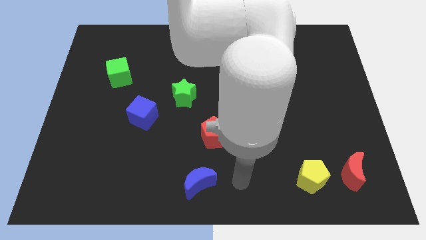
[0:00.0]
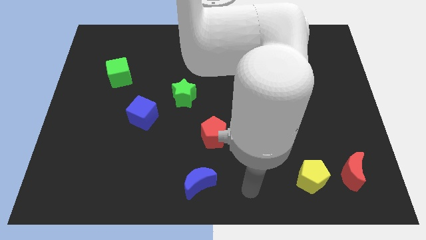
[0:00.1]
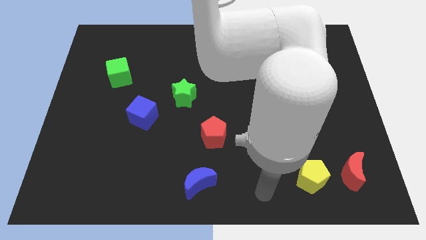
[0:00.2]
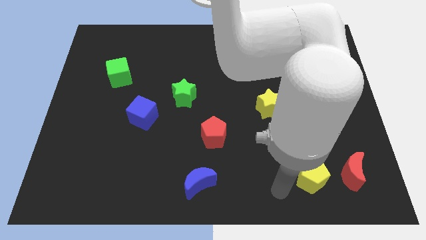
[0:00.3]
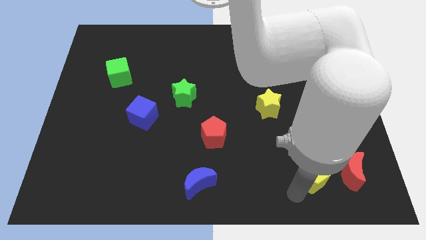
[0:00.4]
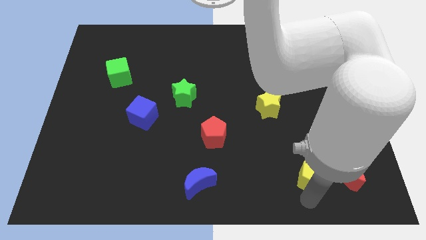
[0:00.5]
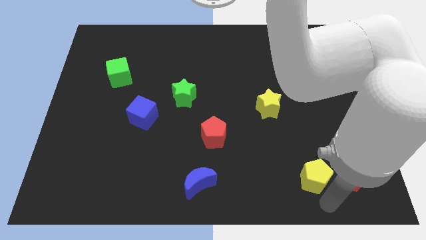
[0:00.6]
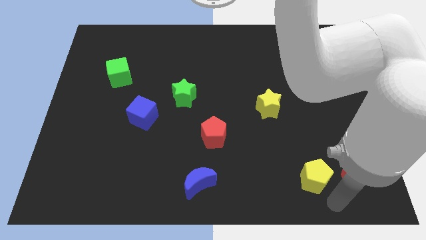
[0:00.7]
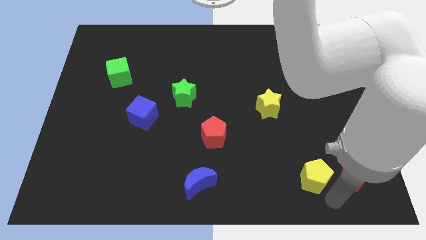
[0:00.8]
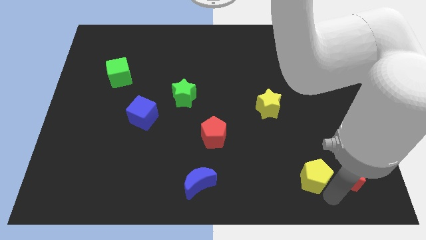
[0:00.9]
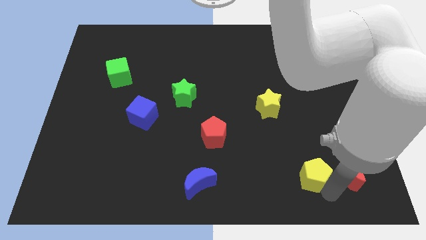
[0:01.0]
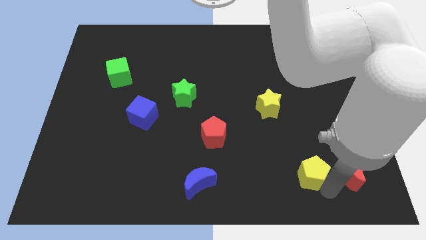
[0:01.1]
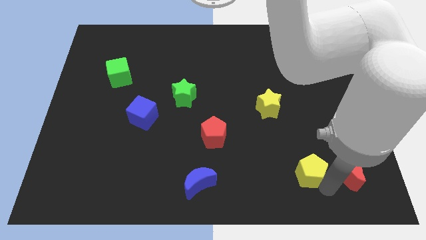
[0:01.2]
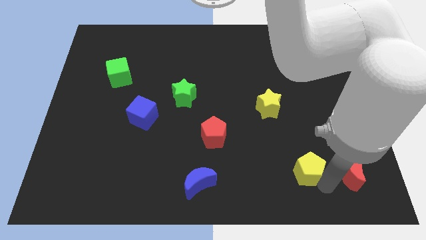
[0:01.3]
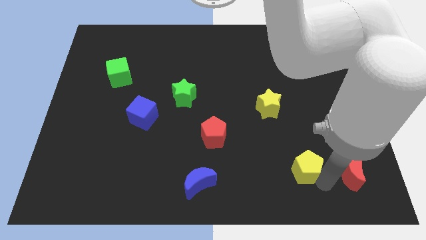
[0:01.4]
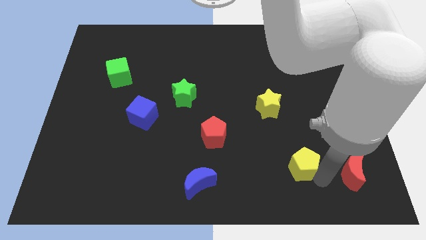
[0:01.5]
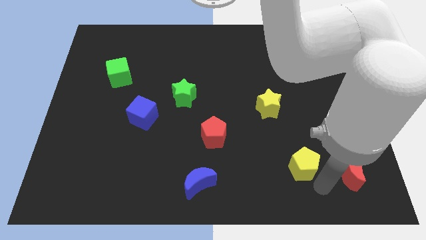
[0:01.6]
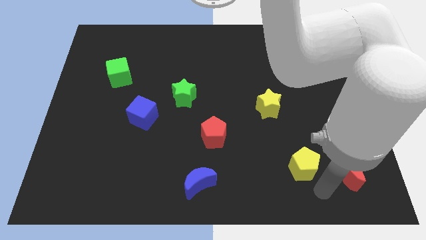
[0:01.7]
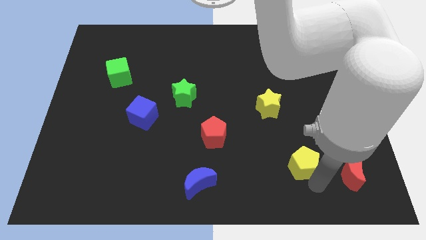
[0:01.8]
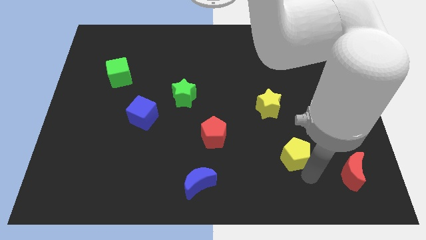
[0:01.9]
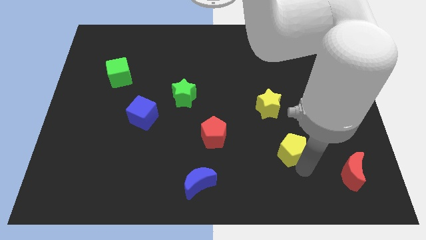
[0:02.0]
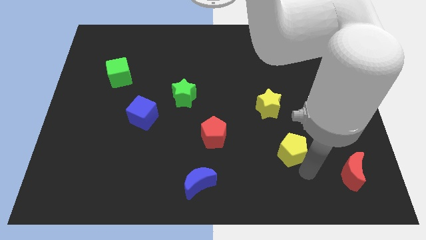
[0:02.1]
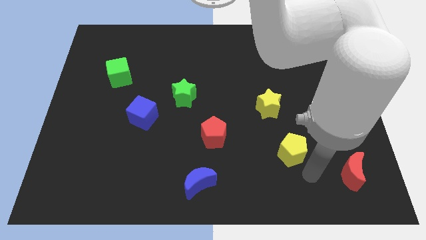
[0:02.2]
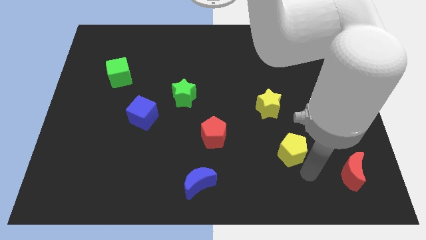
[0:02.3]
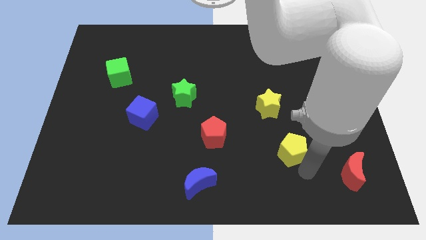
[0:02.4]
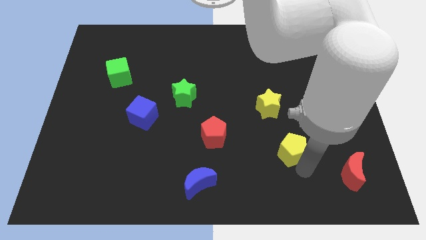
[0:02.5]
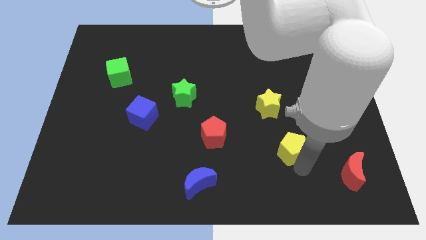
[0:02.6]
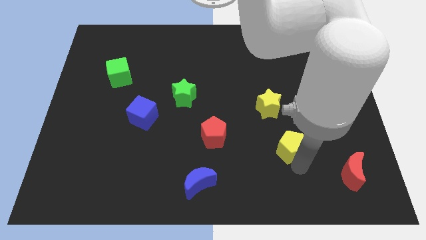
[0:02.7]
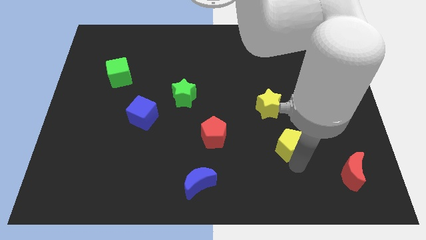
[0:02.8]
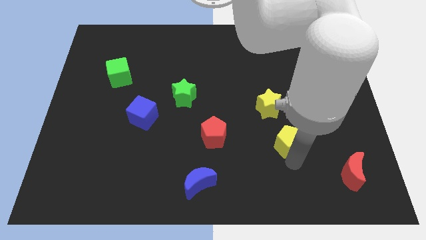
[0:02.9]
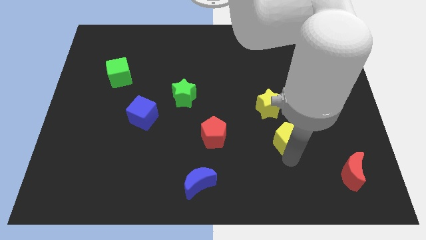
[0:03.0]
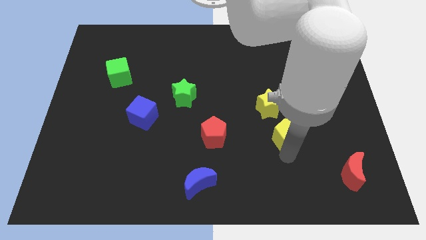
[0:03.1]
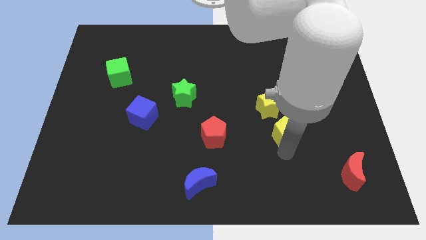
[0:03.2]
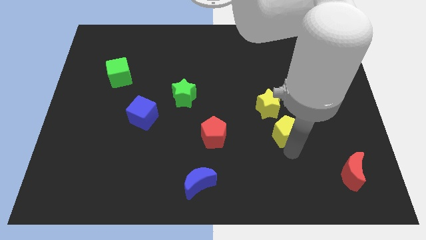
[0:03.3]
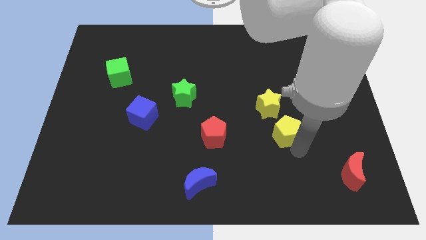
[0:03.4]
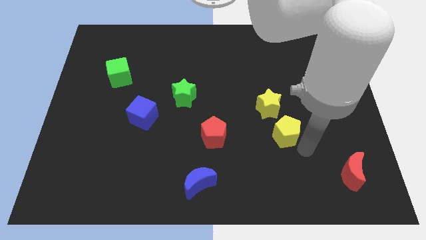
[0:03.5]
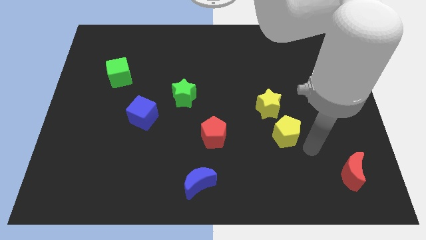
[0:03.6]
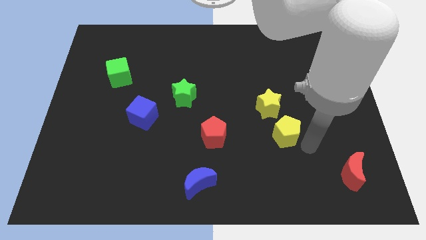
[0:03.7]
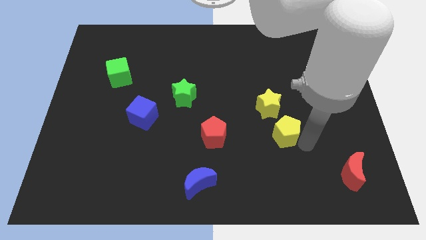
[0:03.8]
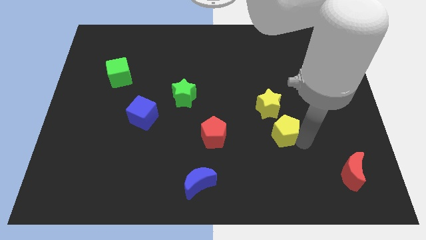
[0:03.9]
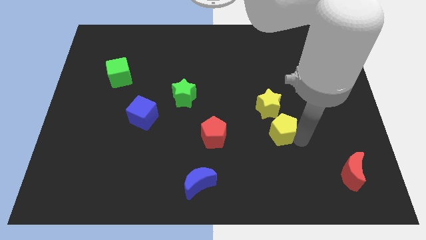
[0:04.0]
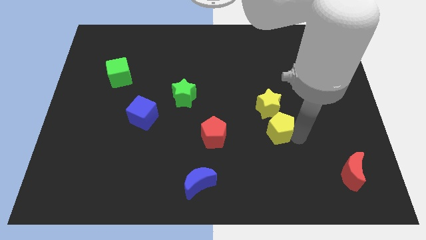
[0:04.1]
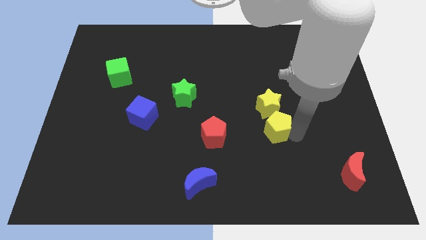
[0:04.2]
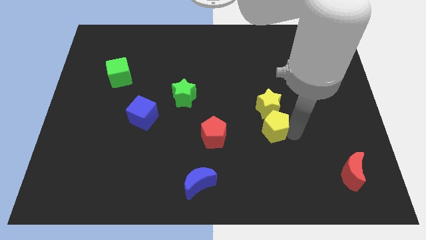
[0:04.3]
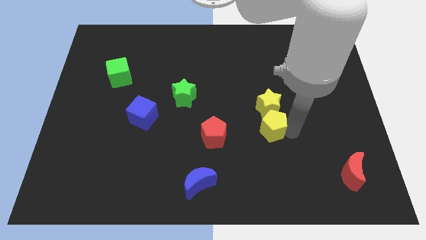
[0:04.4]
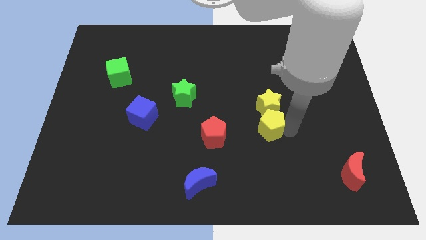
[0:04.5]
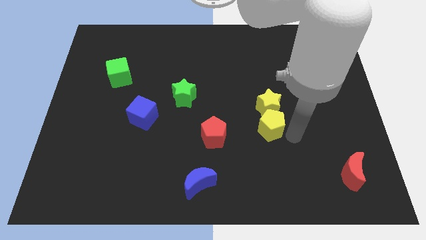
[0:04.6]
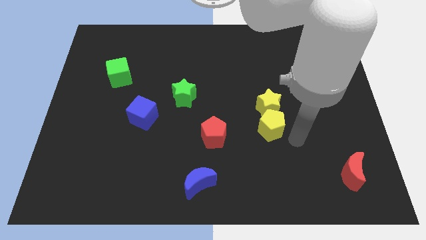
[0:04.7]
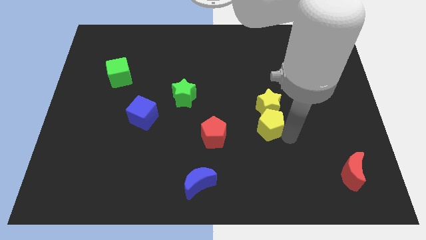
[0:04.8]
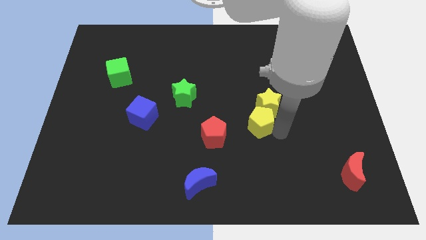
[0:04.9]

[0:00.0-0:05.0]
put the yellow pentagon to the middle of the board

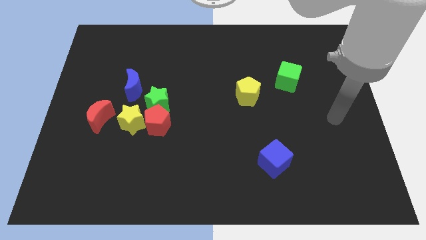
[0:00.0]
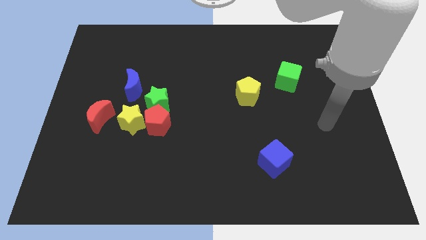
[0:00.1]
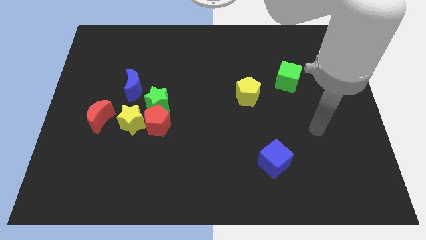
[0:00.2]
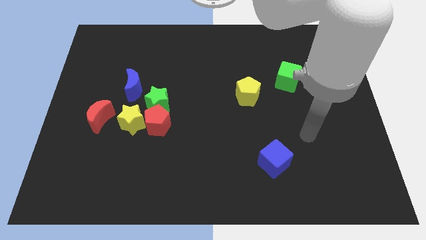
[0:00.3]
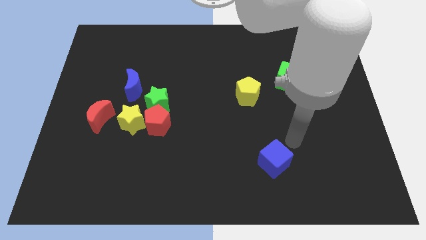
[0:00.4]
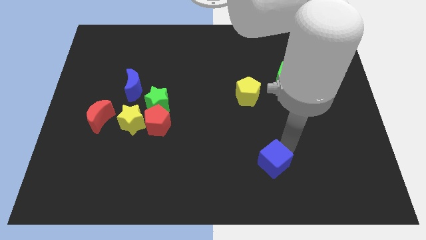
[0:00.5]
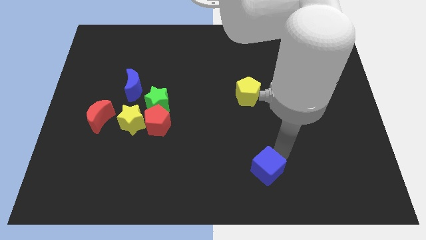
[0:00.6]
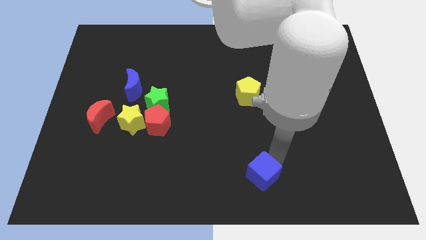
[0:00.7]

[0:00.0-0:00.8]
push the blue cube to the bottom
